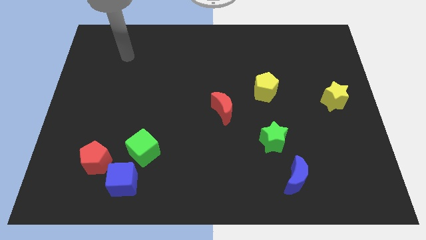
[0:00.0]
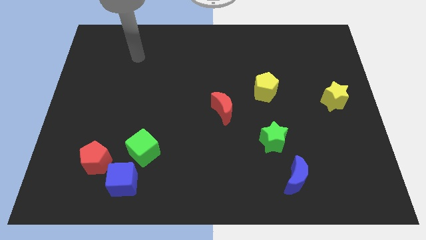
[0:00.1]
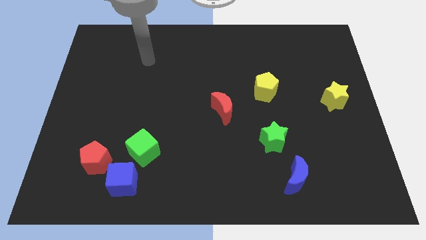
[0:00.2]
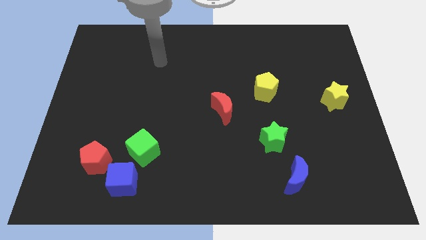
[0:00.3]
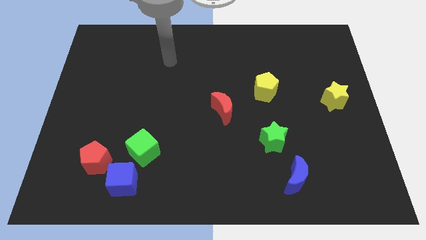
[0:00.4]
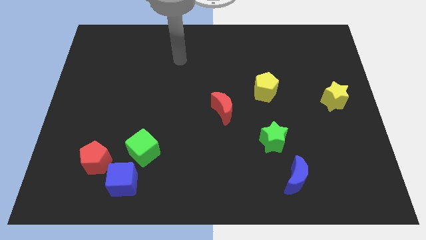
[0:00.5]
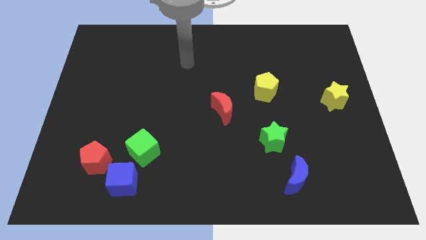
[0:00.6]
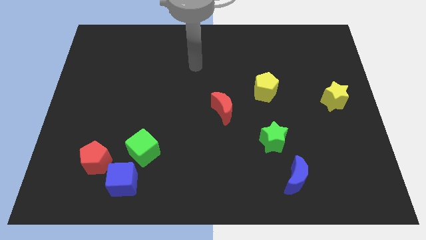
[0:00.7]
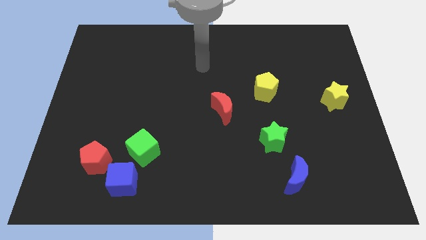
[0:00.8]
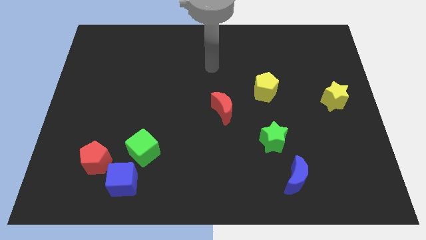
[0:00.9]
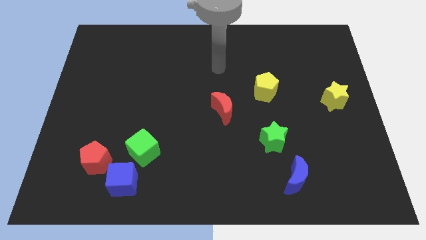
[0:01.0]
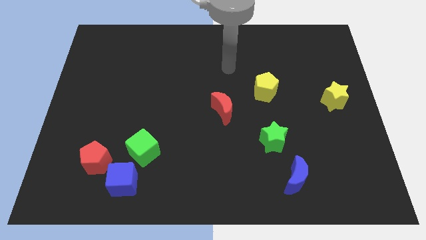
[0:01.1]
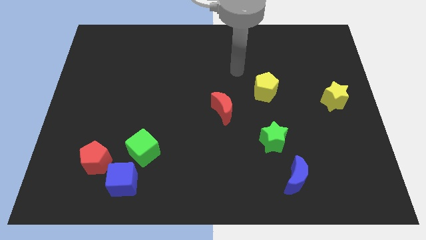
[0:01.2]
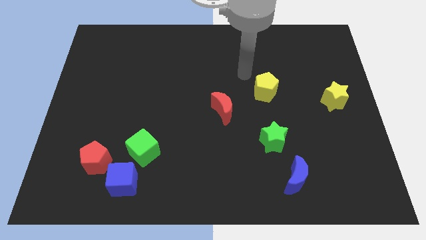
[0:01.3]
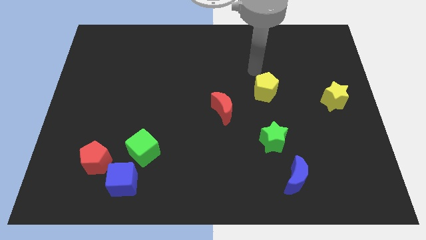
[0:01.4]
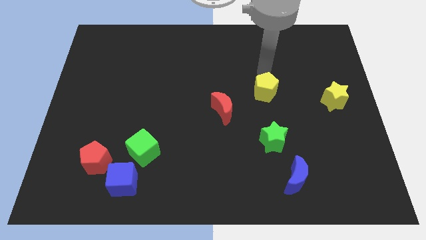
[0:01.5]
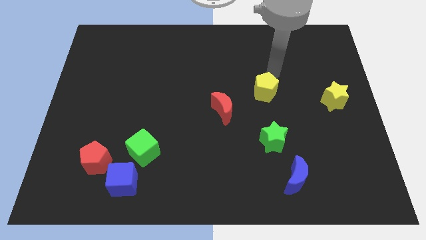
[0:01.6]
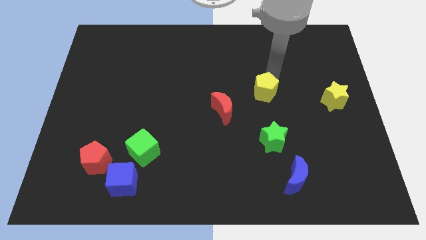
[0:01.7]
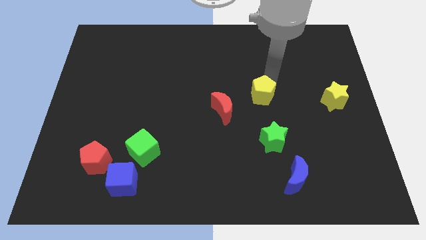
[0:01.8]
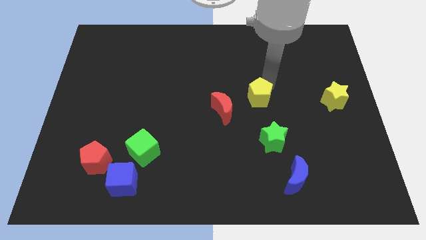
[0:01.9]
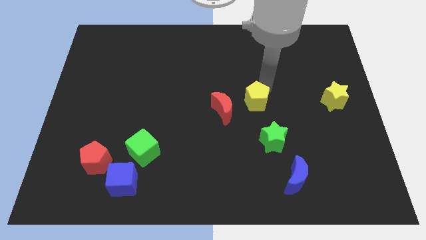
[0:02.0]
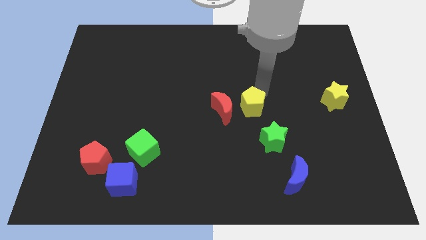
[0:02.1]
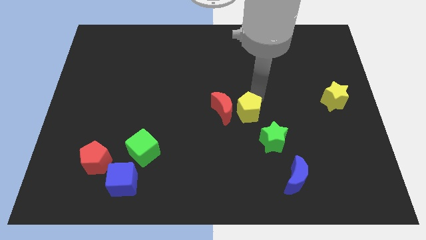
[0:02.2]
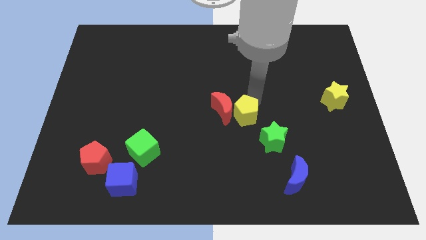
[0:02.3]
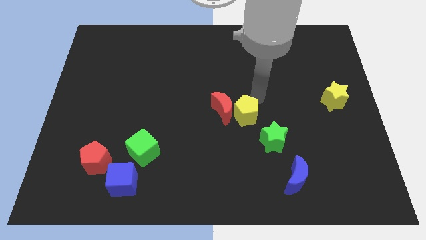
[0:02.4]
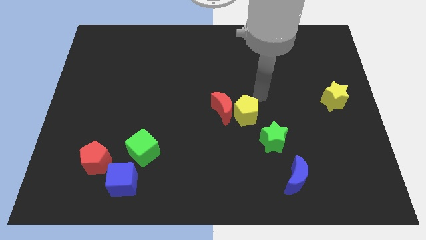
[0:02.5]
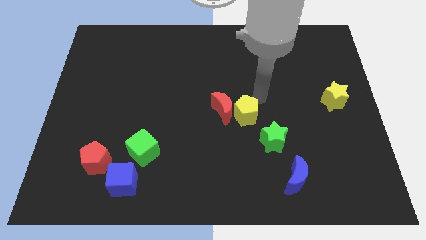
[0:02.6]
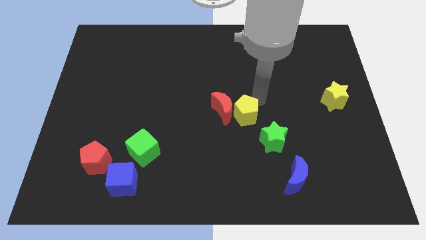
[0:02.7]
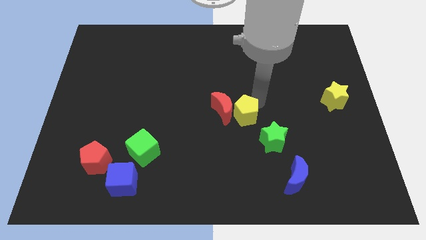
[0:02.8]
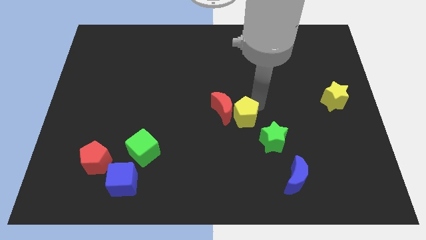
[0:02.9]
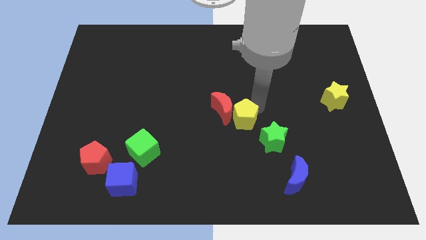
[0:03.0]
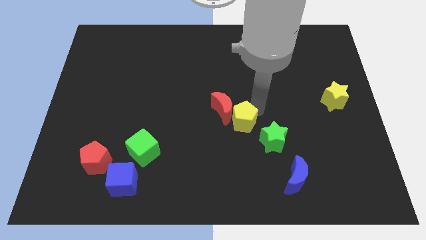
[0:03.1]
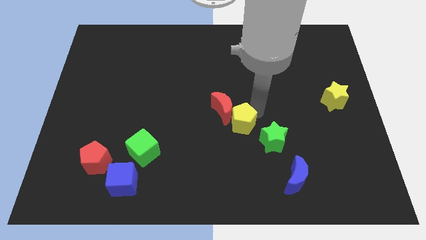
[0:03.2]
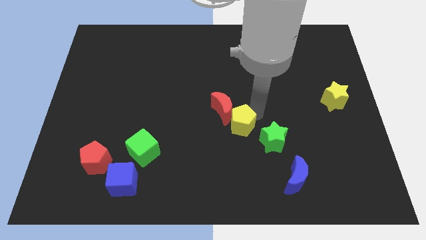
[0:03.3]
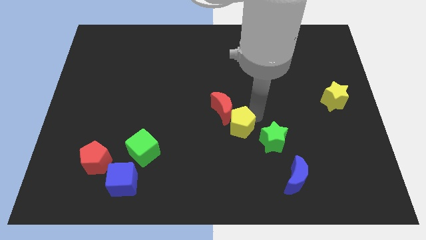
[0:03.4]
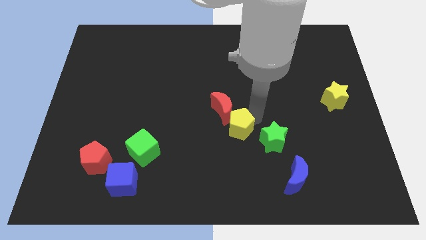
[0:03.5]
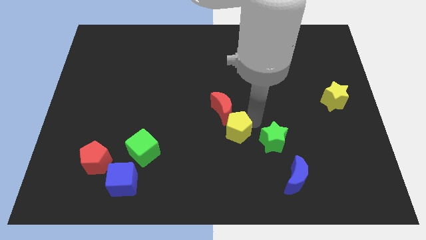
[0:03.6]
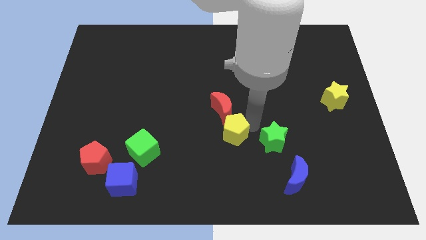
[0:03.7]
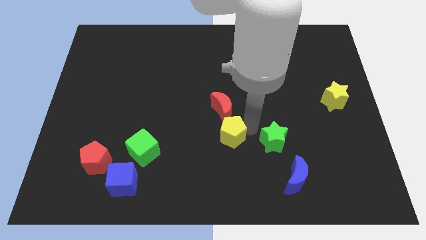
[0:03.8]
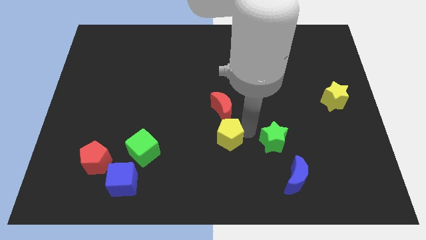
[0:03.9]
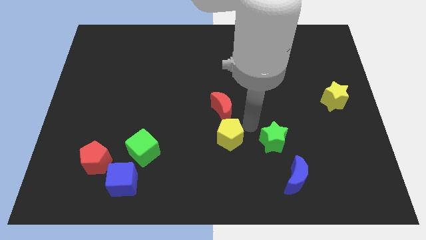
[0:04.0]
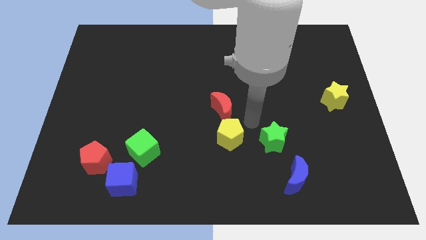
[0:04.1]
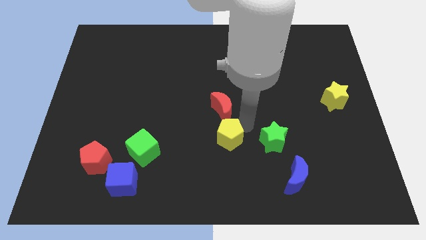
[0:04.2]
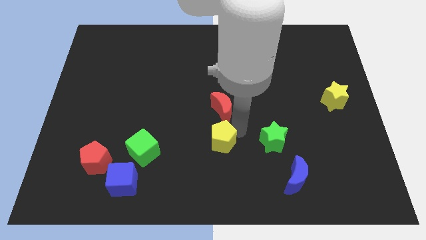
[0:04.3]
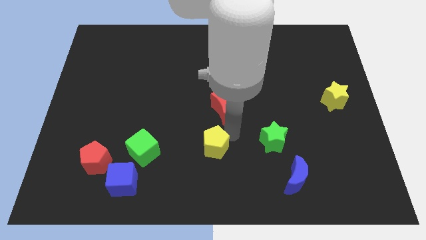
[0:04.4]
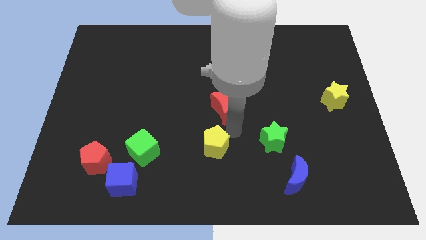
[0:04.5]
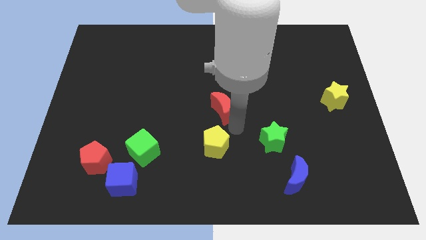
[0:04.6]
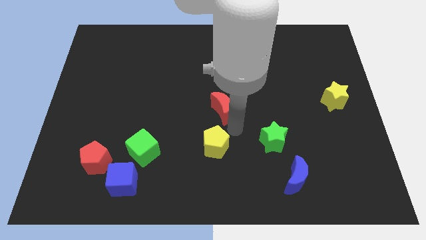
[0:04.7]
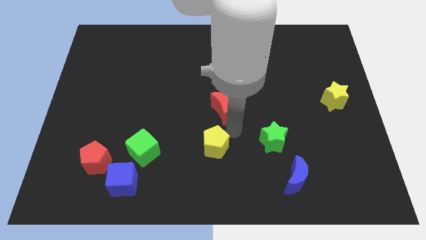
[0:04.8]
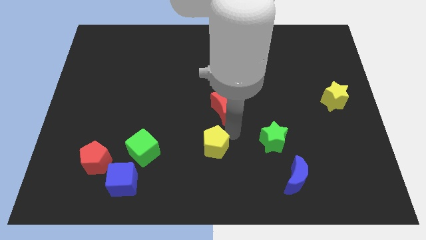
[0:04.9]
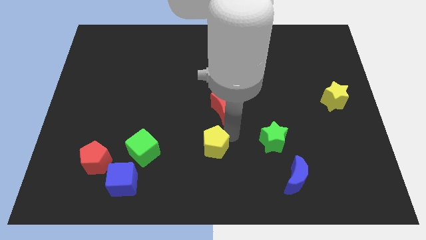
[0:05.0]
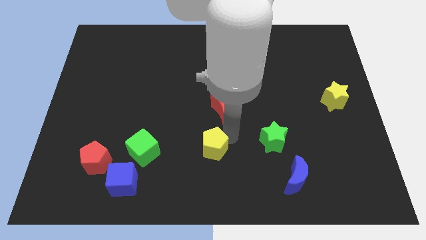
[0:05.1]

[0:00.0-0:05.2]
slide the yellow pentagon down and left

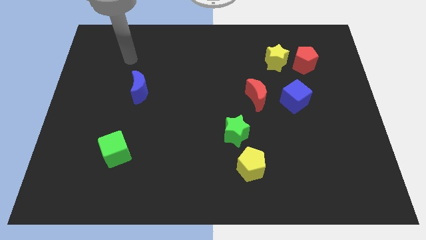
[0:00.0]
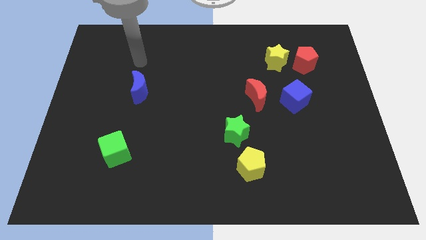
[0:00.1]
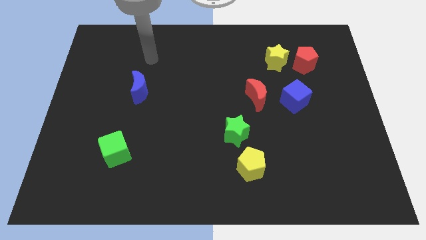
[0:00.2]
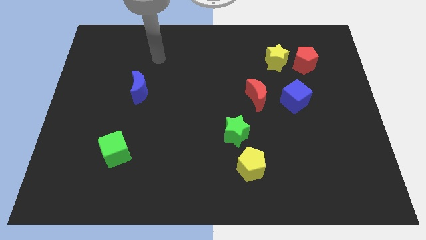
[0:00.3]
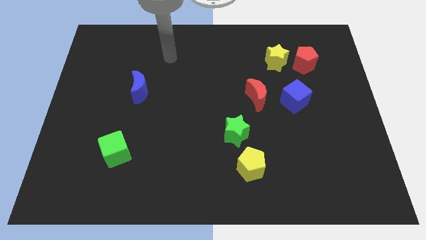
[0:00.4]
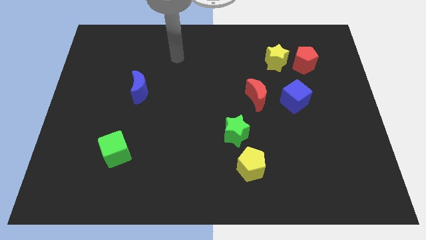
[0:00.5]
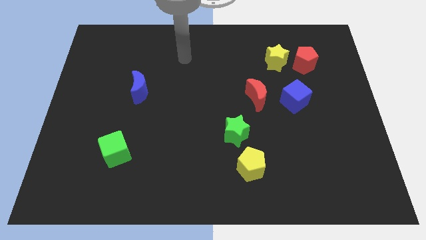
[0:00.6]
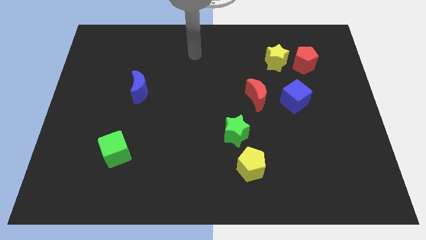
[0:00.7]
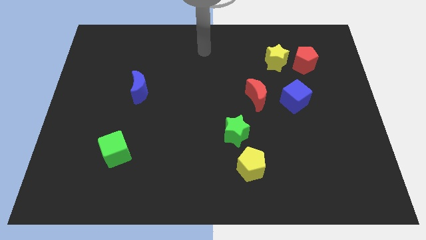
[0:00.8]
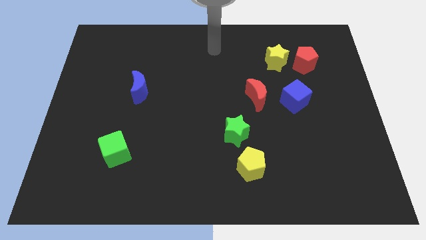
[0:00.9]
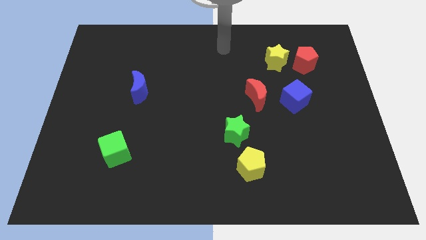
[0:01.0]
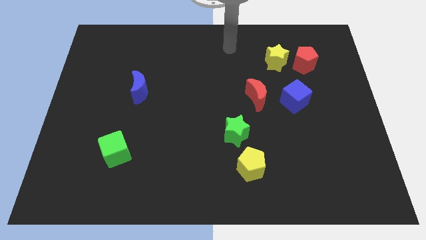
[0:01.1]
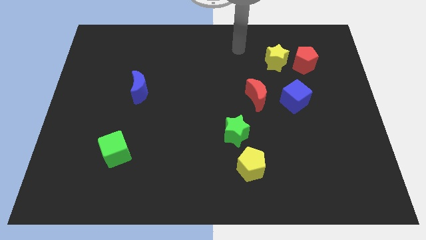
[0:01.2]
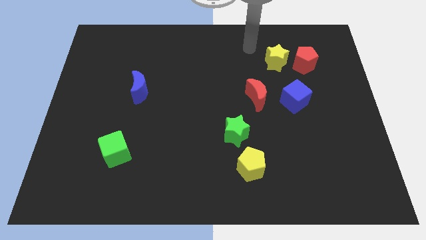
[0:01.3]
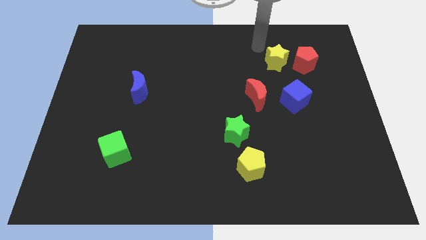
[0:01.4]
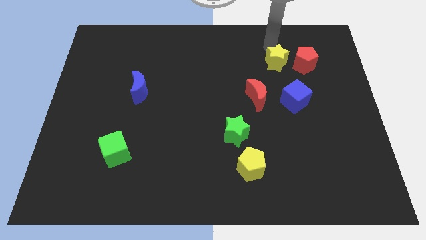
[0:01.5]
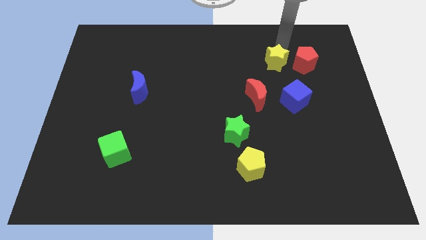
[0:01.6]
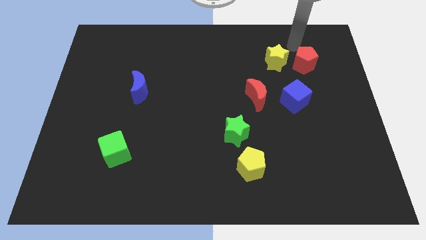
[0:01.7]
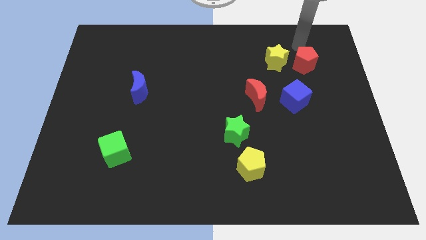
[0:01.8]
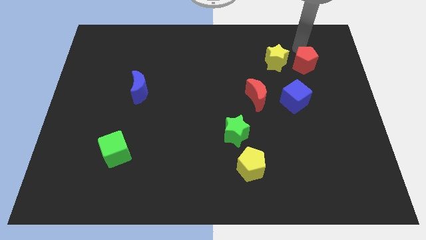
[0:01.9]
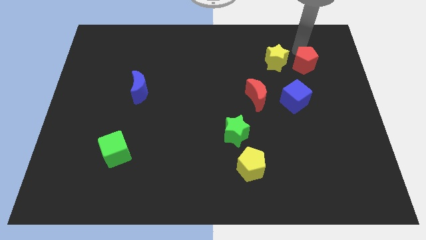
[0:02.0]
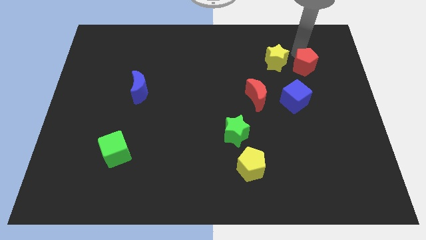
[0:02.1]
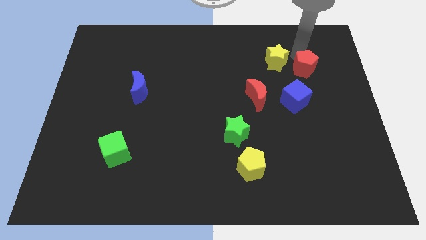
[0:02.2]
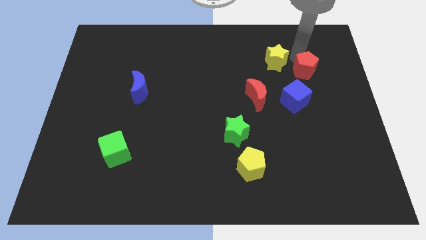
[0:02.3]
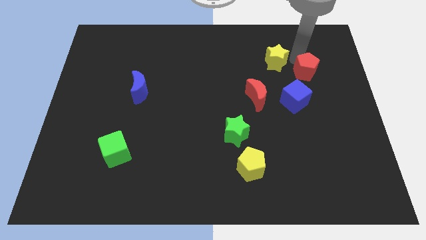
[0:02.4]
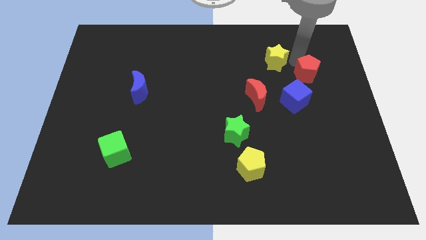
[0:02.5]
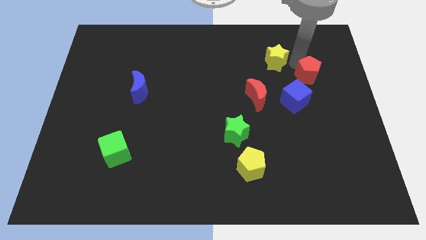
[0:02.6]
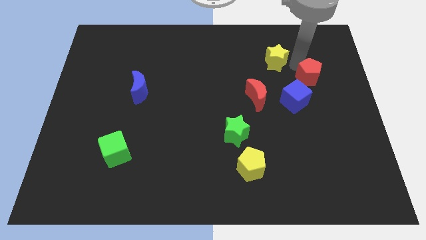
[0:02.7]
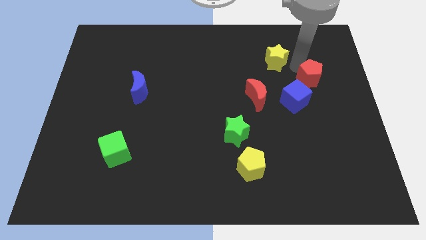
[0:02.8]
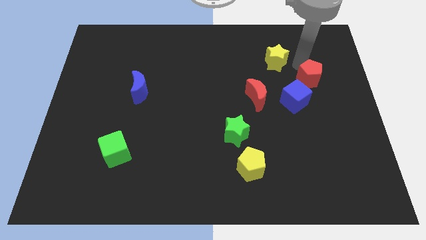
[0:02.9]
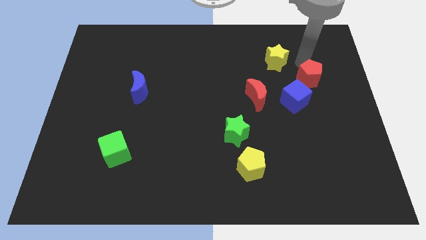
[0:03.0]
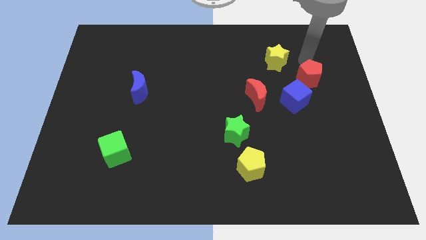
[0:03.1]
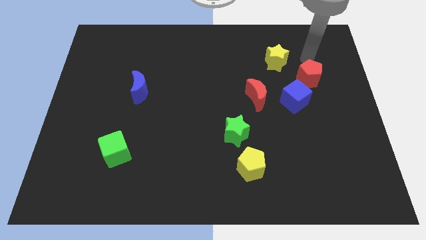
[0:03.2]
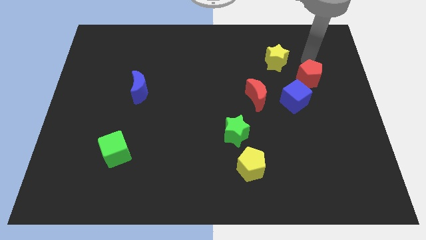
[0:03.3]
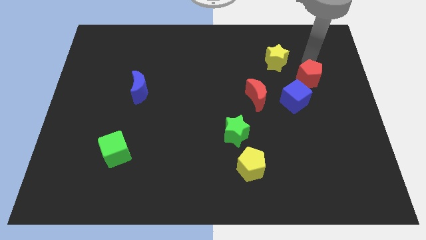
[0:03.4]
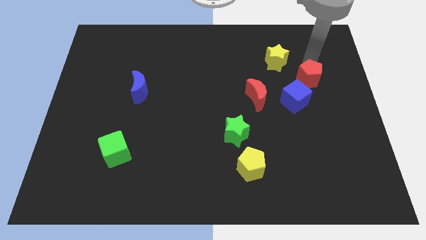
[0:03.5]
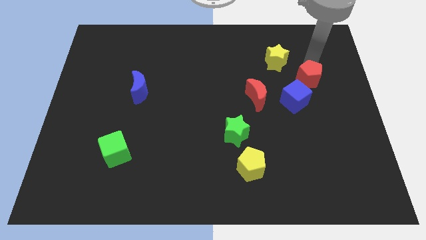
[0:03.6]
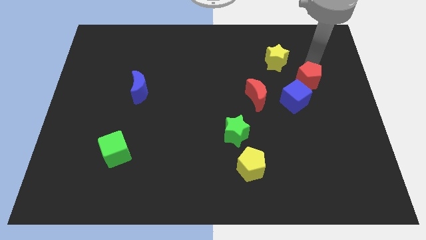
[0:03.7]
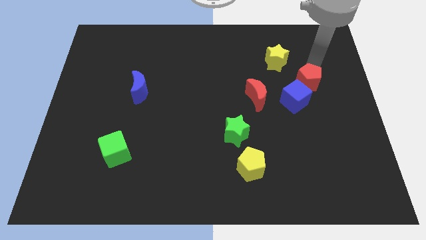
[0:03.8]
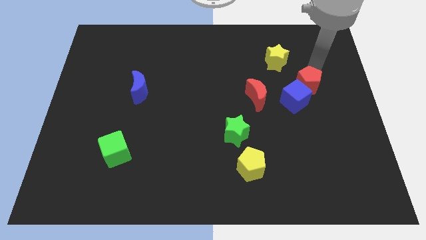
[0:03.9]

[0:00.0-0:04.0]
push the red pentagon down a bit
